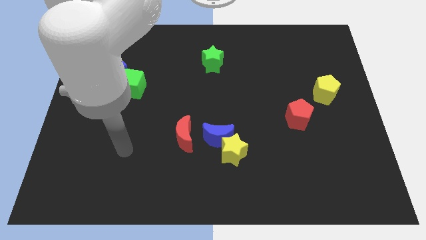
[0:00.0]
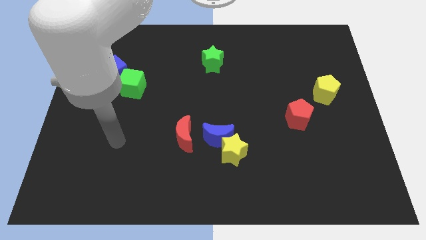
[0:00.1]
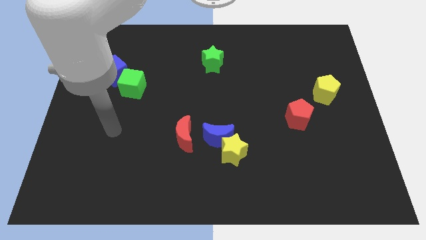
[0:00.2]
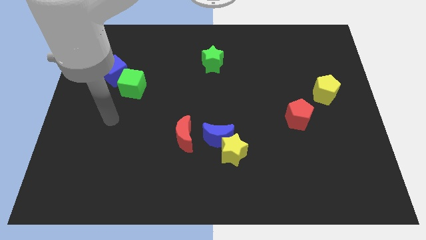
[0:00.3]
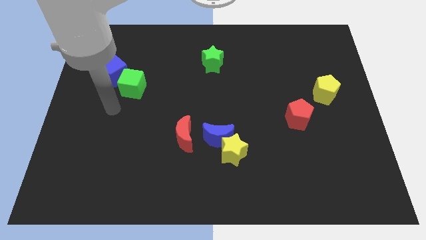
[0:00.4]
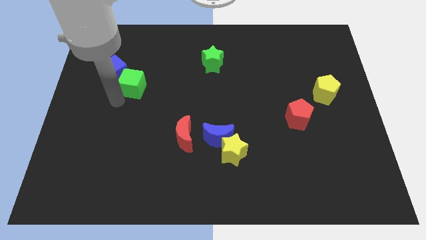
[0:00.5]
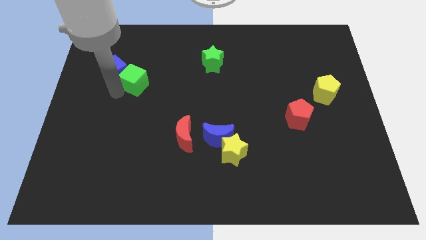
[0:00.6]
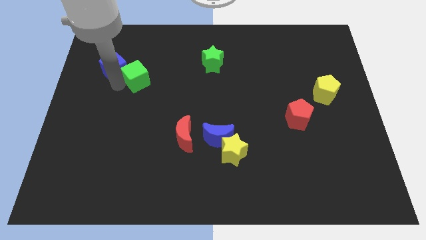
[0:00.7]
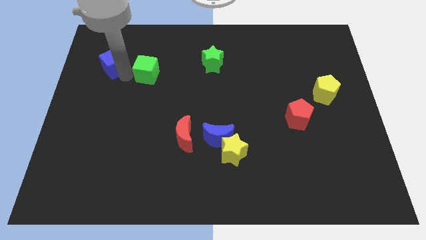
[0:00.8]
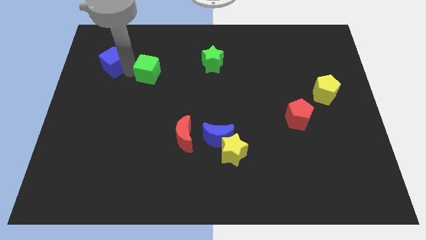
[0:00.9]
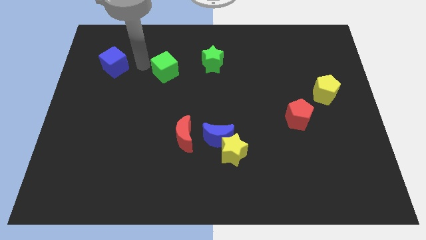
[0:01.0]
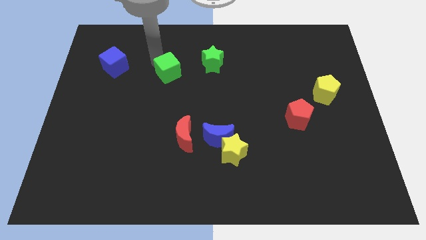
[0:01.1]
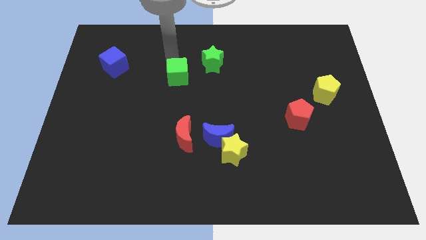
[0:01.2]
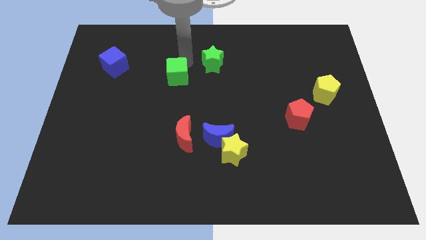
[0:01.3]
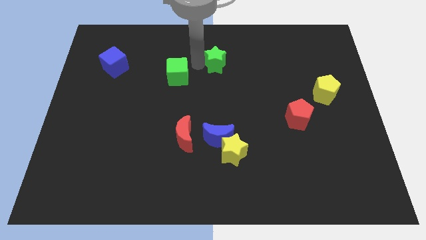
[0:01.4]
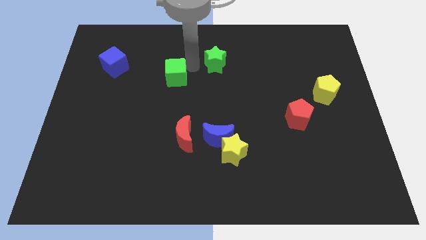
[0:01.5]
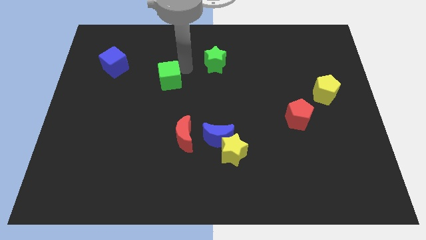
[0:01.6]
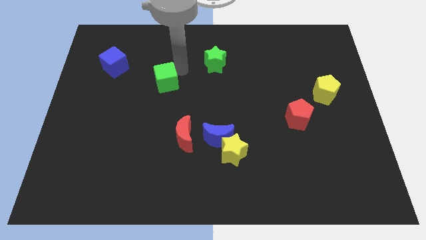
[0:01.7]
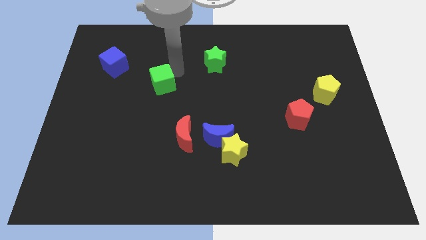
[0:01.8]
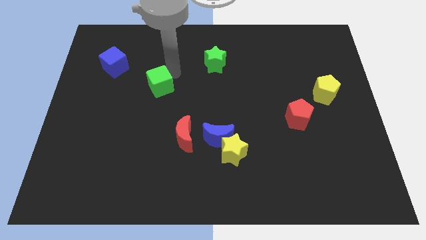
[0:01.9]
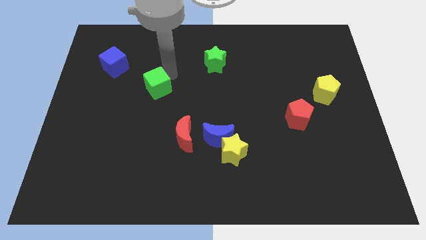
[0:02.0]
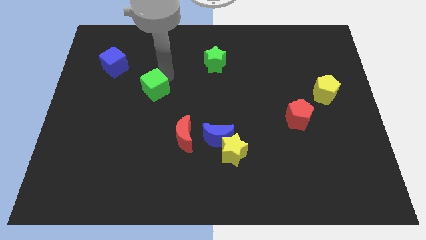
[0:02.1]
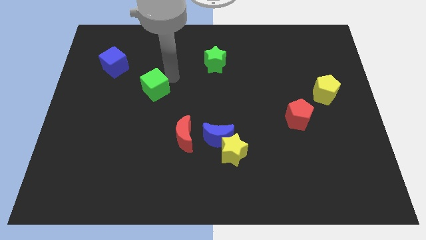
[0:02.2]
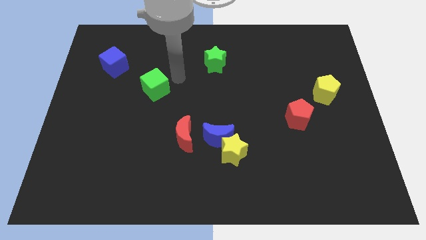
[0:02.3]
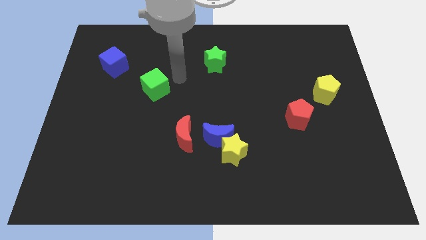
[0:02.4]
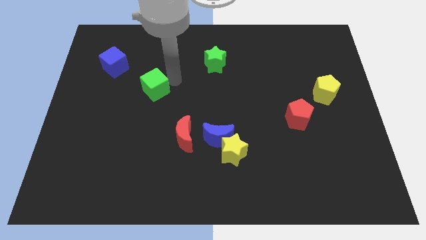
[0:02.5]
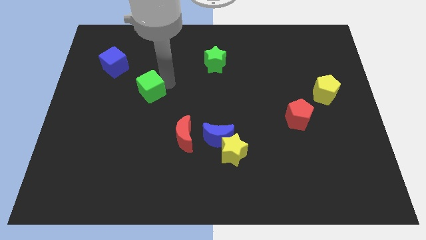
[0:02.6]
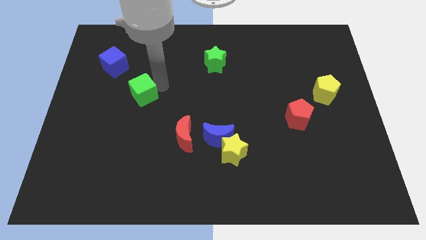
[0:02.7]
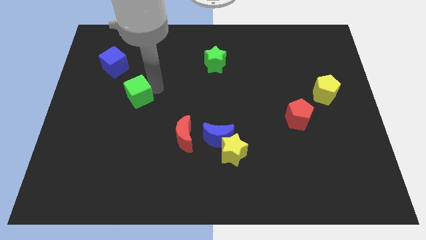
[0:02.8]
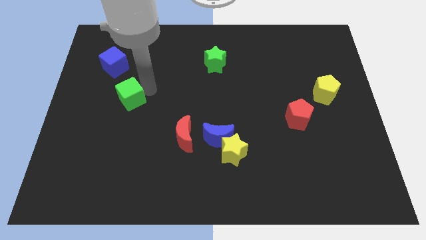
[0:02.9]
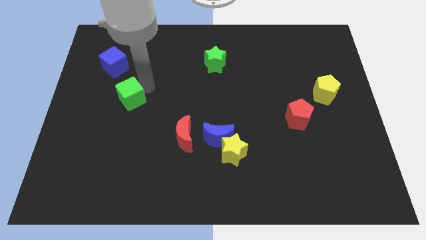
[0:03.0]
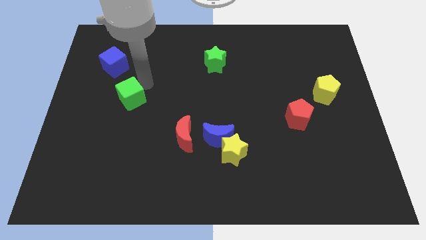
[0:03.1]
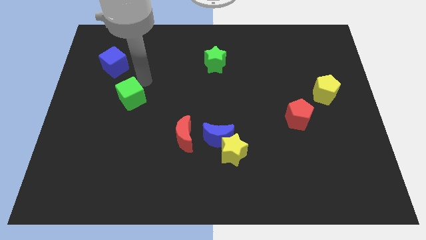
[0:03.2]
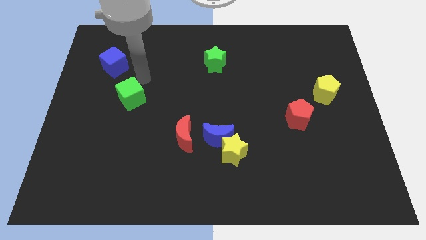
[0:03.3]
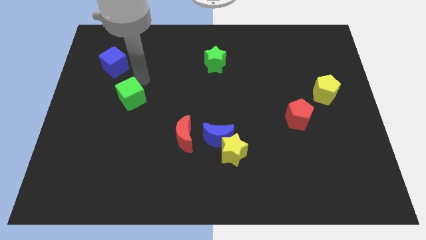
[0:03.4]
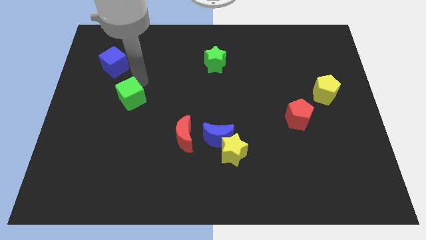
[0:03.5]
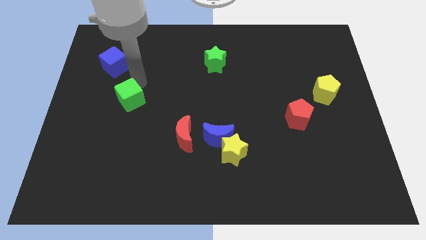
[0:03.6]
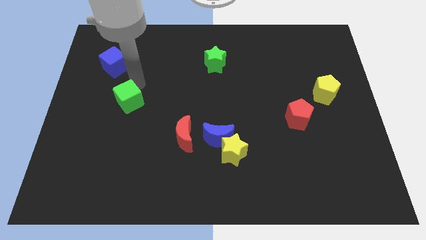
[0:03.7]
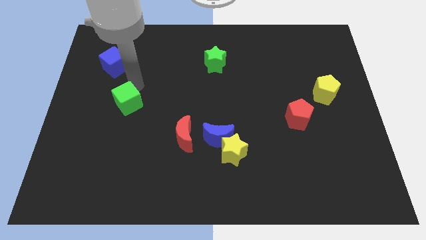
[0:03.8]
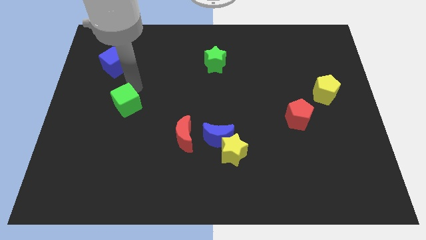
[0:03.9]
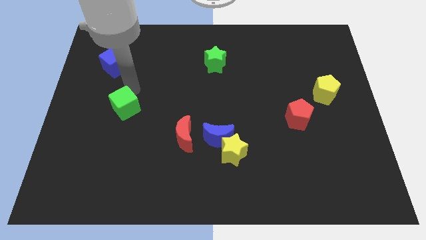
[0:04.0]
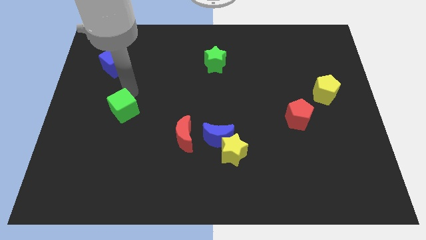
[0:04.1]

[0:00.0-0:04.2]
push the green cube a little down

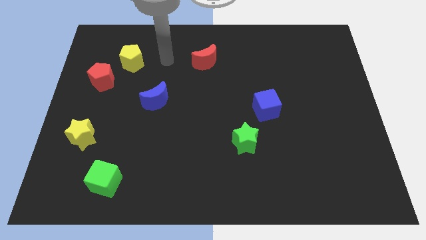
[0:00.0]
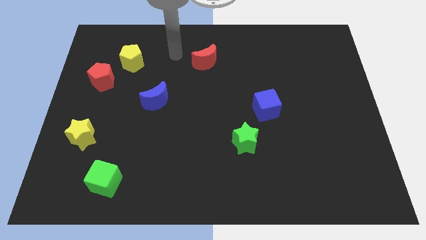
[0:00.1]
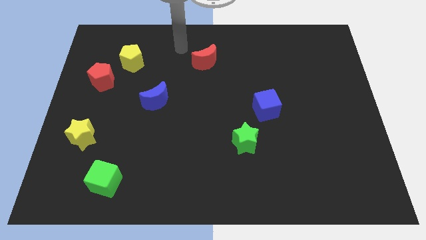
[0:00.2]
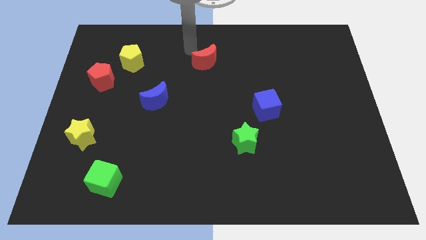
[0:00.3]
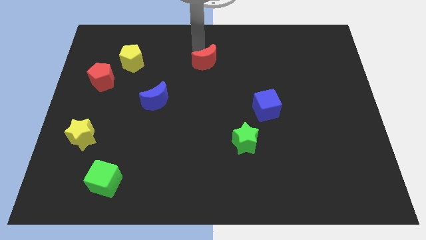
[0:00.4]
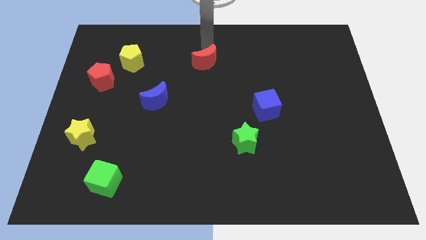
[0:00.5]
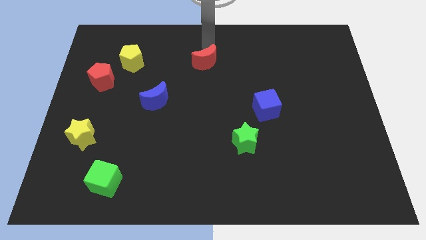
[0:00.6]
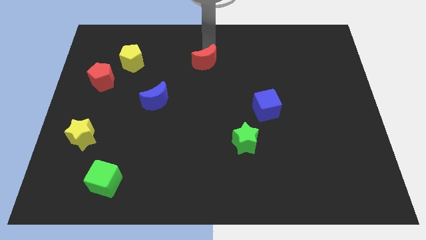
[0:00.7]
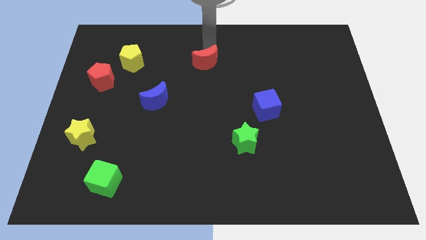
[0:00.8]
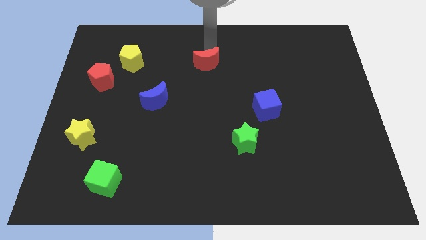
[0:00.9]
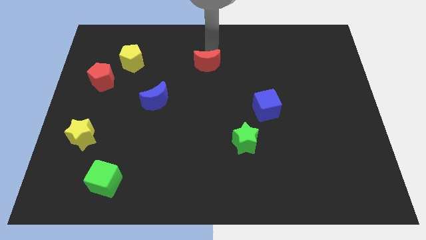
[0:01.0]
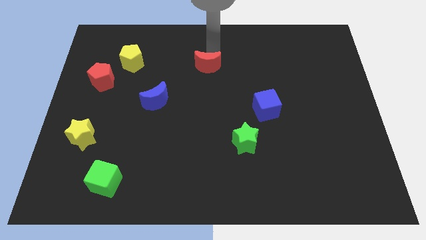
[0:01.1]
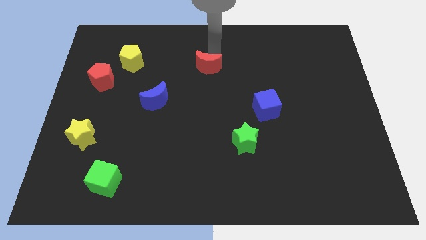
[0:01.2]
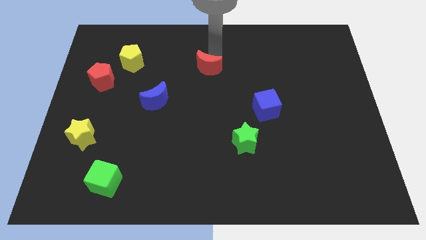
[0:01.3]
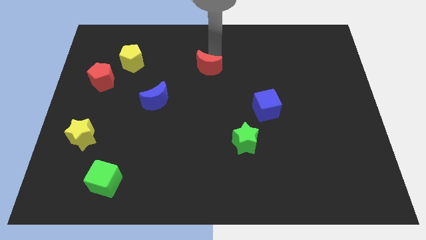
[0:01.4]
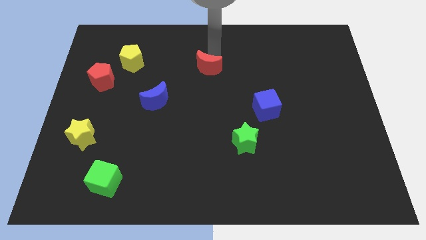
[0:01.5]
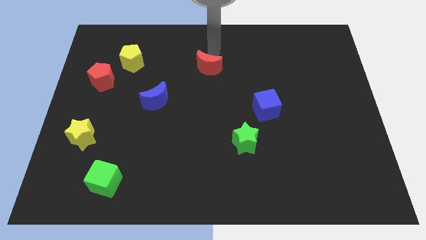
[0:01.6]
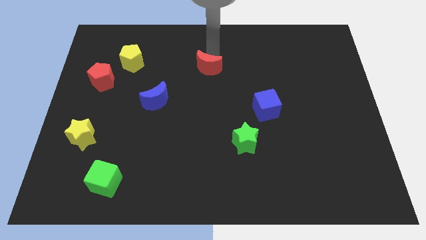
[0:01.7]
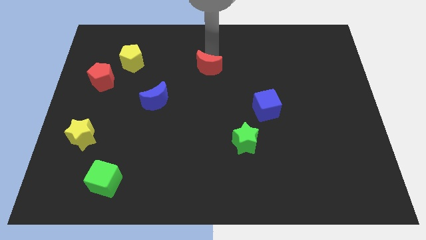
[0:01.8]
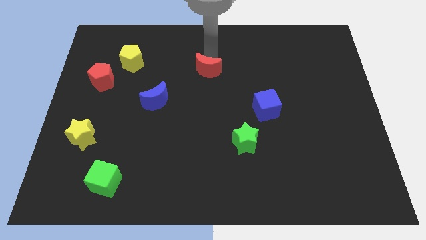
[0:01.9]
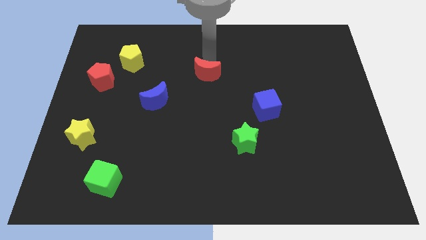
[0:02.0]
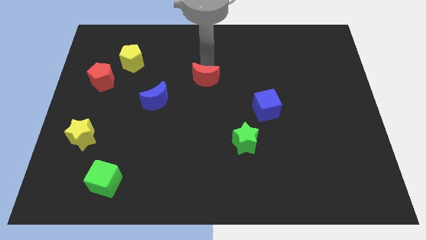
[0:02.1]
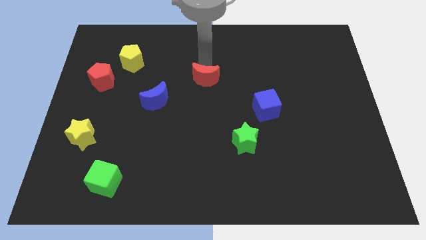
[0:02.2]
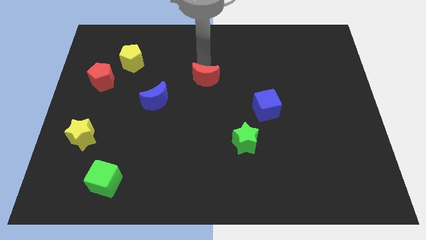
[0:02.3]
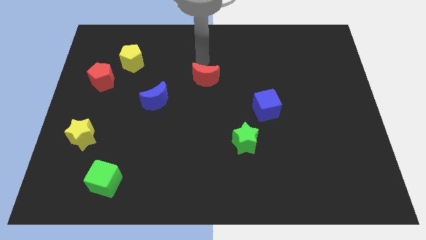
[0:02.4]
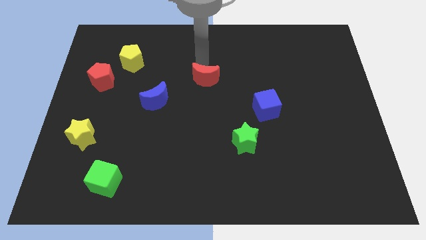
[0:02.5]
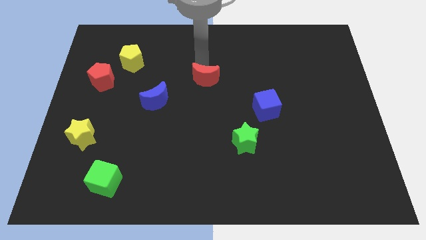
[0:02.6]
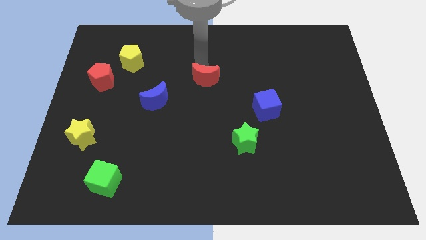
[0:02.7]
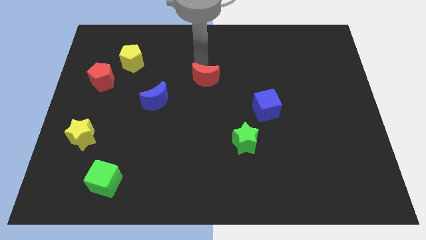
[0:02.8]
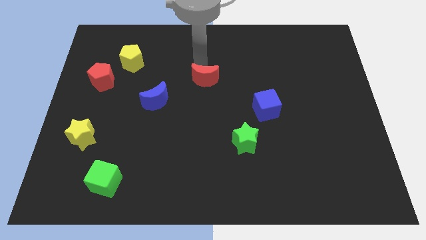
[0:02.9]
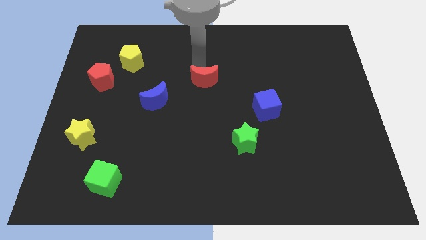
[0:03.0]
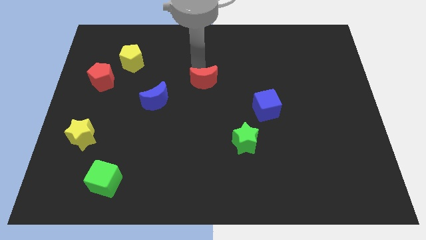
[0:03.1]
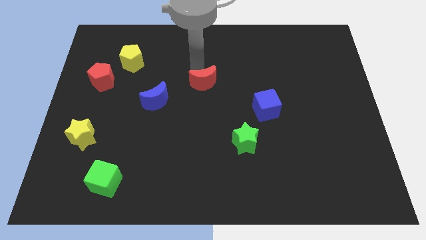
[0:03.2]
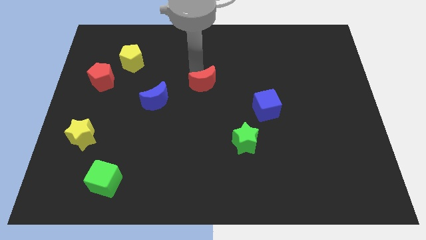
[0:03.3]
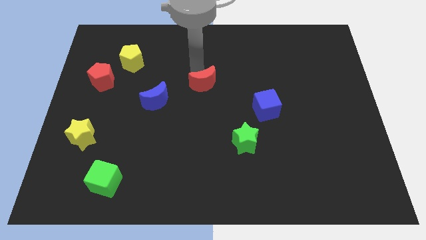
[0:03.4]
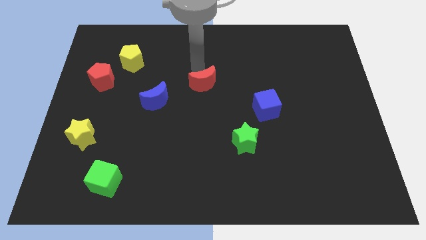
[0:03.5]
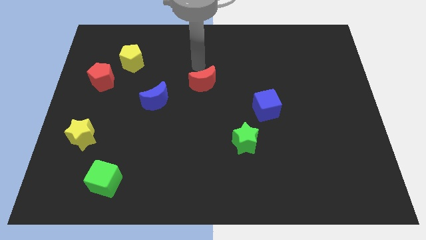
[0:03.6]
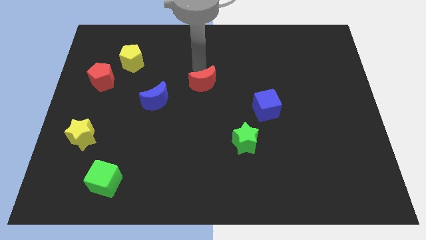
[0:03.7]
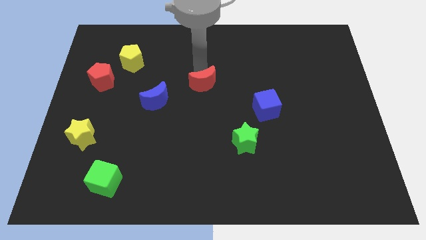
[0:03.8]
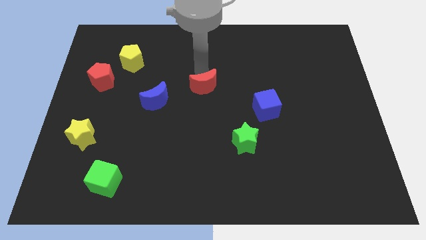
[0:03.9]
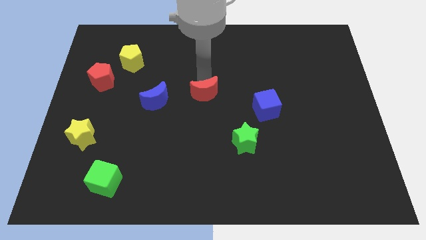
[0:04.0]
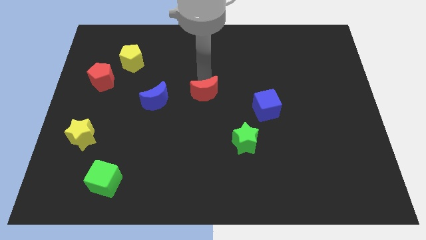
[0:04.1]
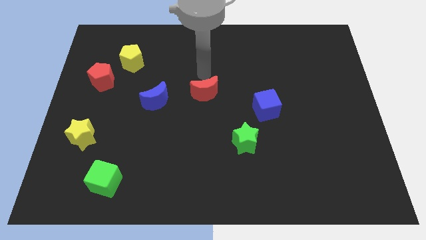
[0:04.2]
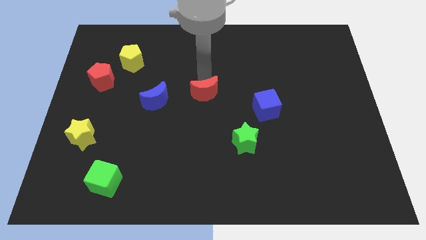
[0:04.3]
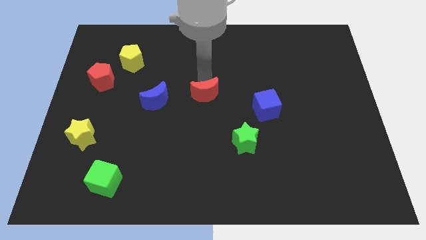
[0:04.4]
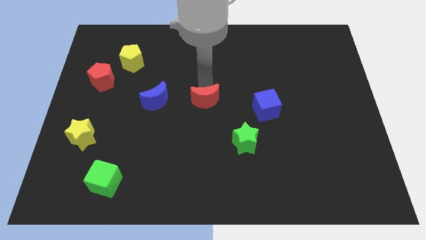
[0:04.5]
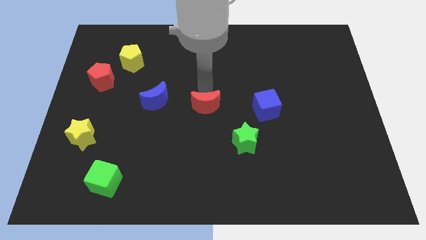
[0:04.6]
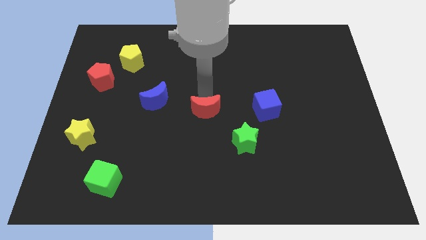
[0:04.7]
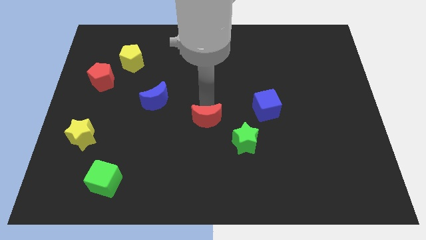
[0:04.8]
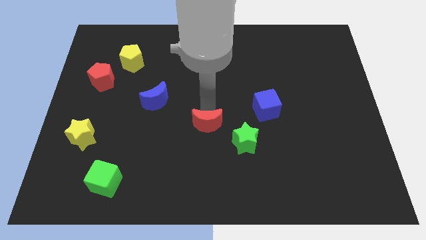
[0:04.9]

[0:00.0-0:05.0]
move the red moon down
